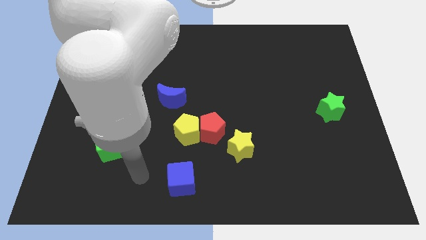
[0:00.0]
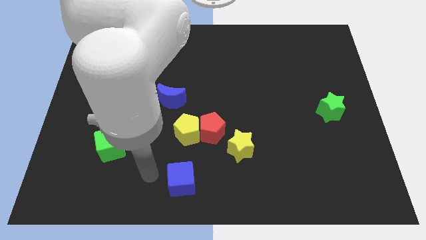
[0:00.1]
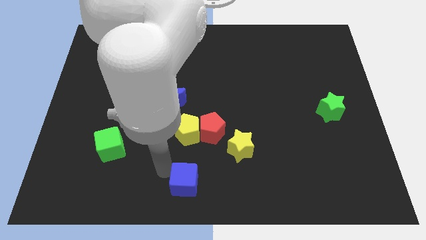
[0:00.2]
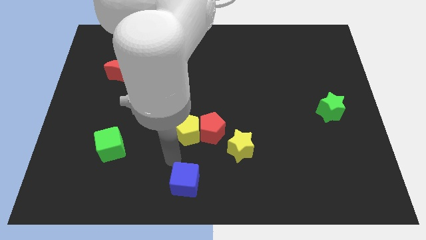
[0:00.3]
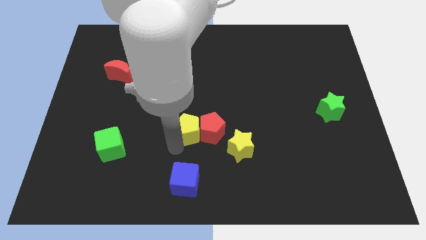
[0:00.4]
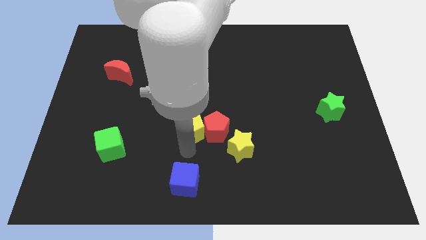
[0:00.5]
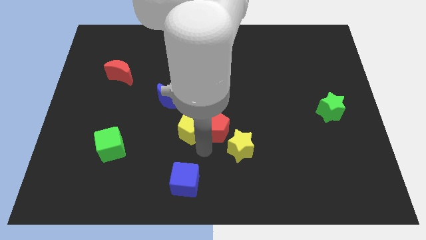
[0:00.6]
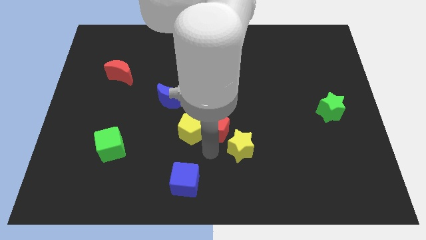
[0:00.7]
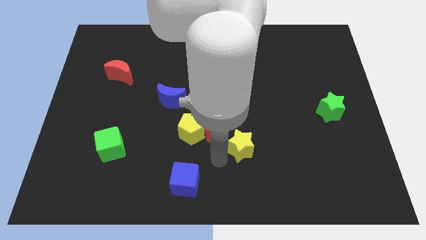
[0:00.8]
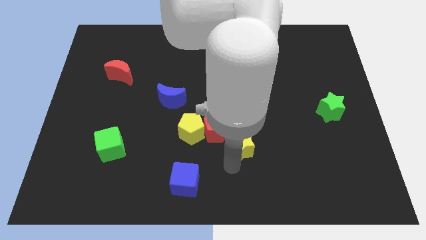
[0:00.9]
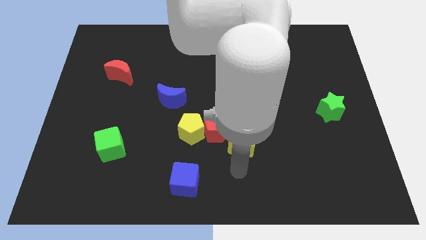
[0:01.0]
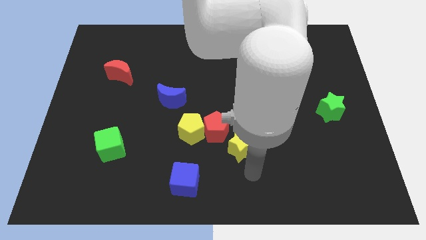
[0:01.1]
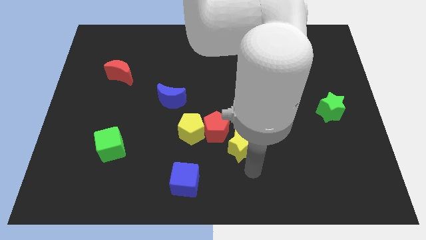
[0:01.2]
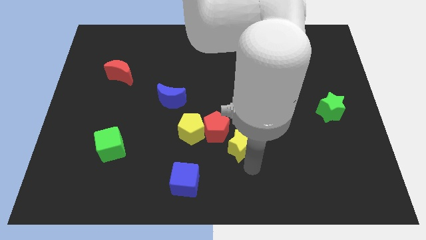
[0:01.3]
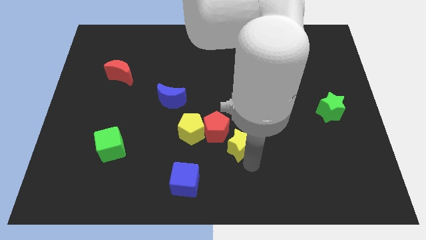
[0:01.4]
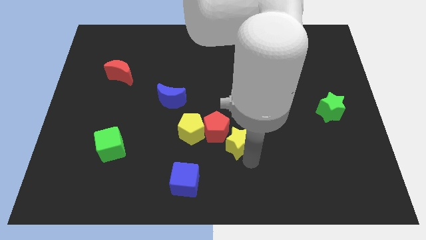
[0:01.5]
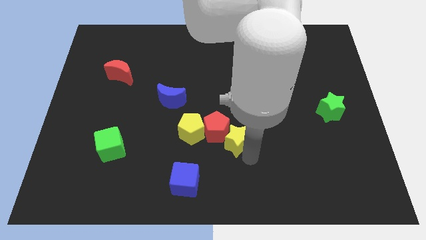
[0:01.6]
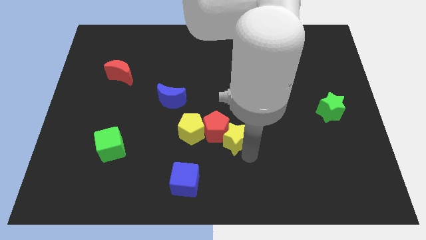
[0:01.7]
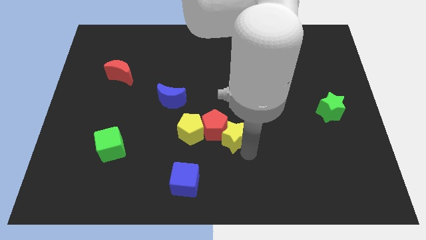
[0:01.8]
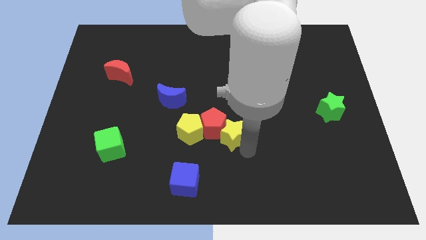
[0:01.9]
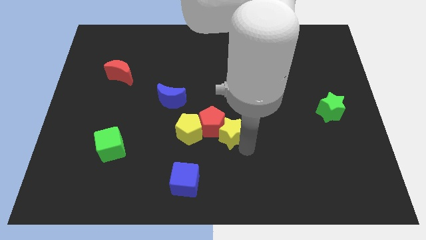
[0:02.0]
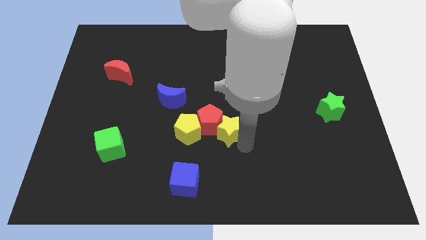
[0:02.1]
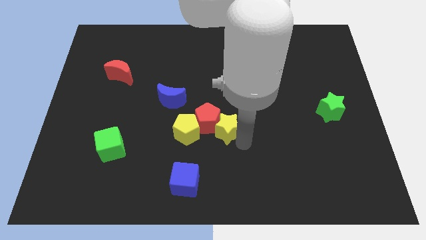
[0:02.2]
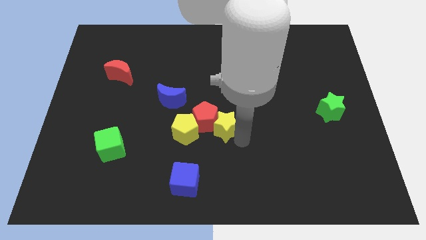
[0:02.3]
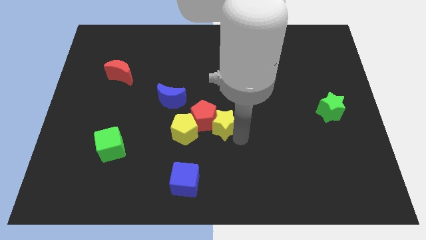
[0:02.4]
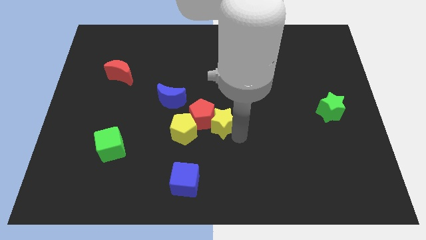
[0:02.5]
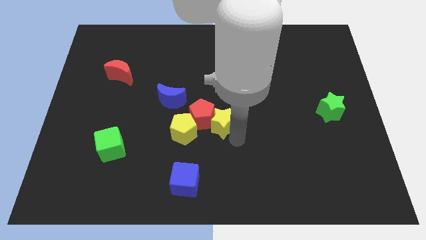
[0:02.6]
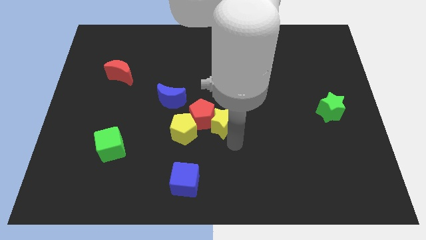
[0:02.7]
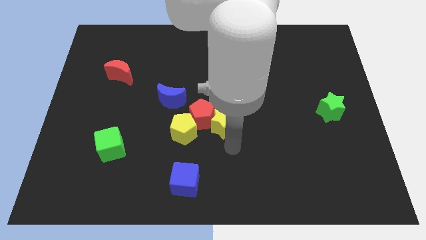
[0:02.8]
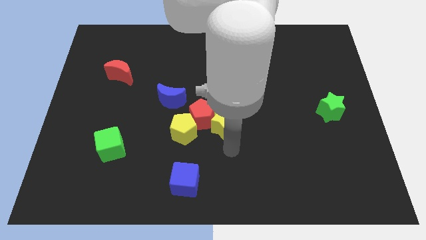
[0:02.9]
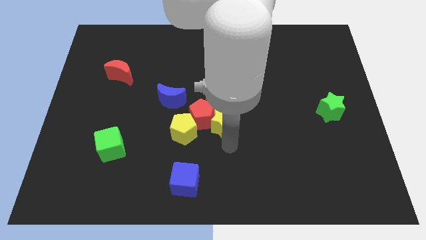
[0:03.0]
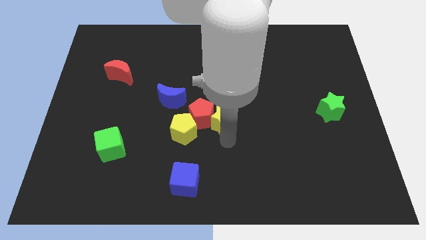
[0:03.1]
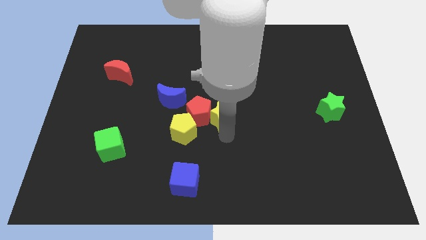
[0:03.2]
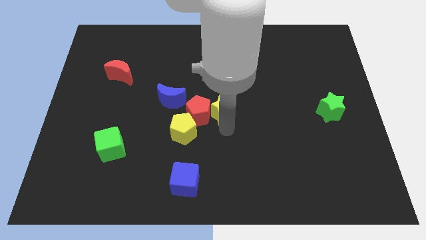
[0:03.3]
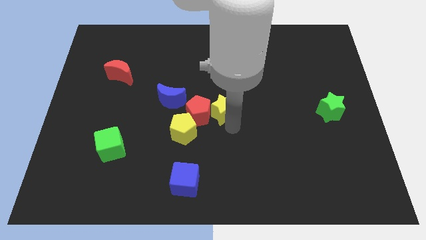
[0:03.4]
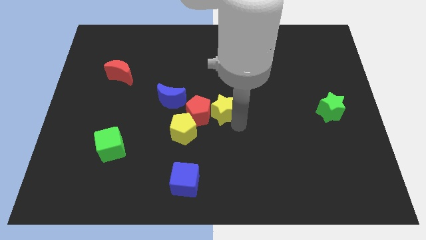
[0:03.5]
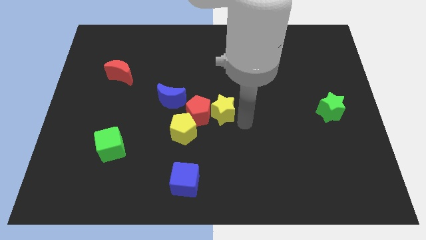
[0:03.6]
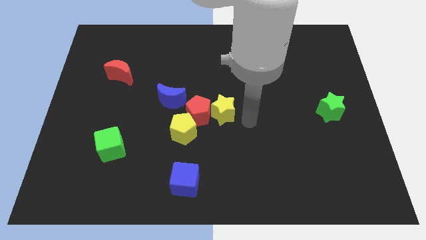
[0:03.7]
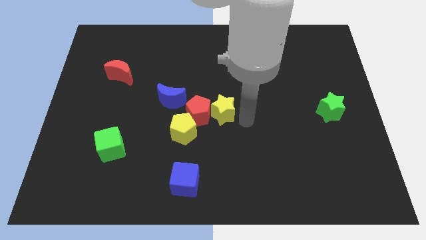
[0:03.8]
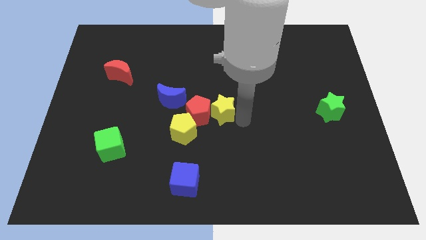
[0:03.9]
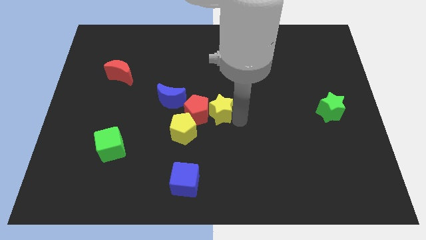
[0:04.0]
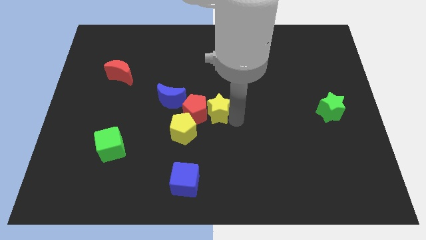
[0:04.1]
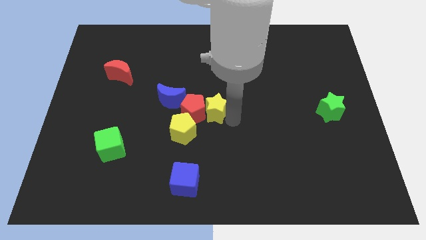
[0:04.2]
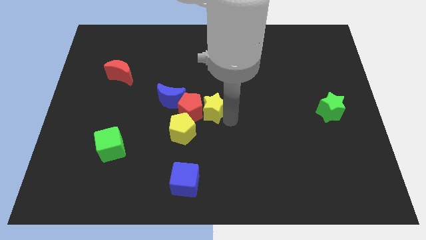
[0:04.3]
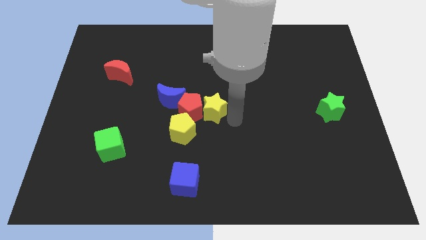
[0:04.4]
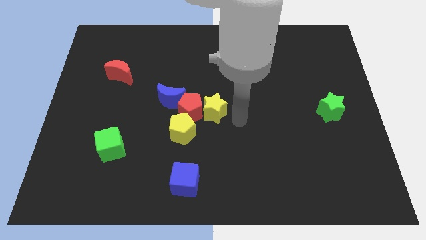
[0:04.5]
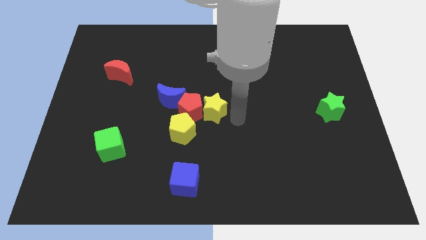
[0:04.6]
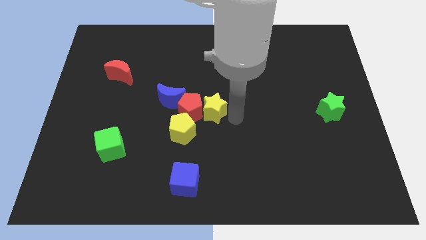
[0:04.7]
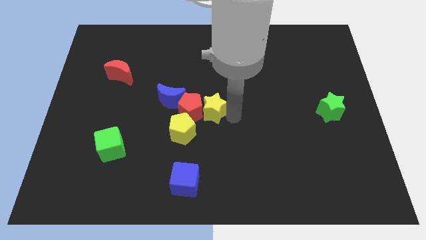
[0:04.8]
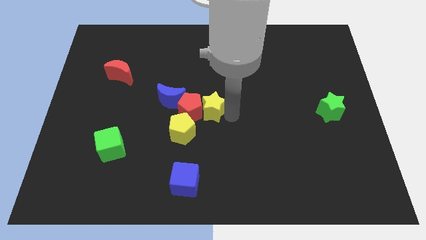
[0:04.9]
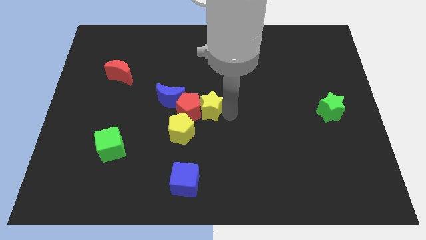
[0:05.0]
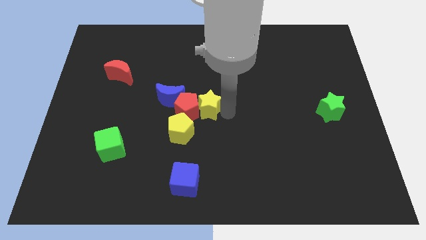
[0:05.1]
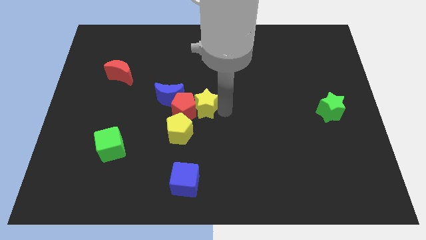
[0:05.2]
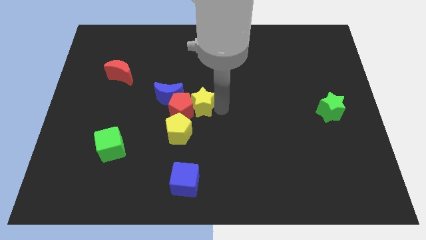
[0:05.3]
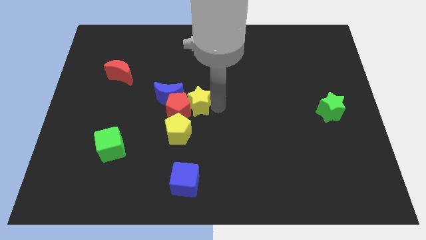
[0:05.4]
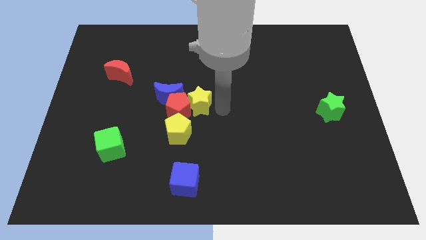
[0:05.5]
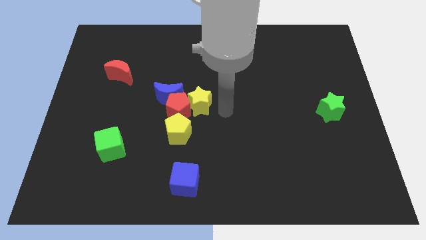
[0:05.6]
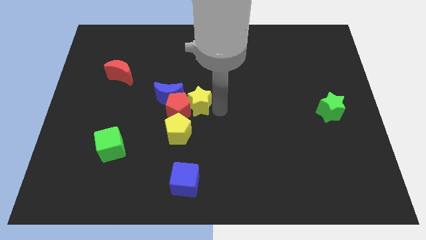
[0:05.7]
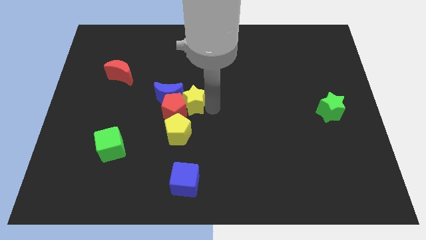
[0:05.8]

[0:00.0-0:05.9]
push the yellow star next to the blue moon

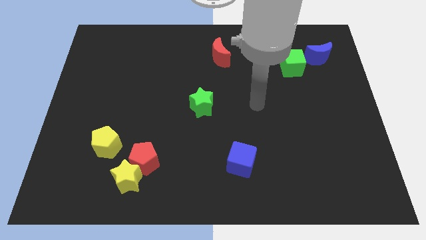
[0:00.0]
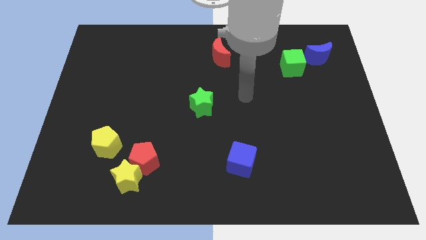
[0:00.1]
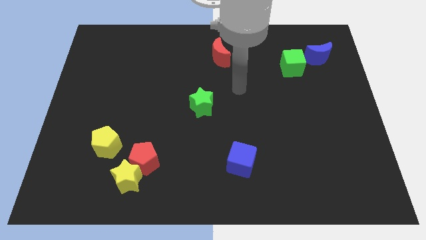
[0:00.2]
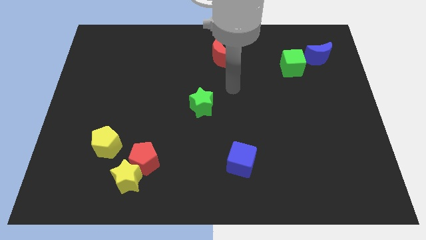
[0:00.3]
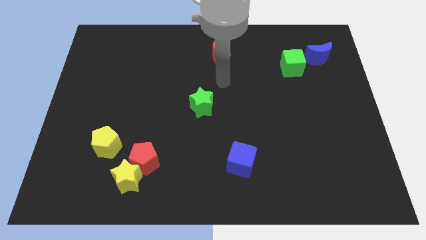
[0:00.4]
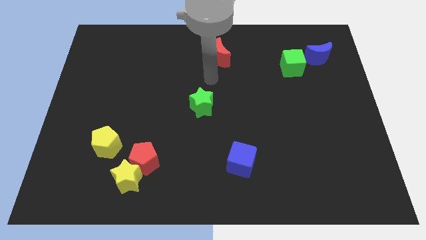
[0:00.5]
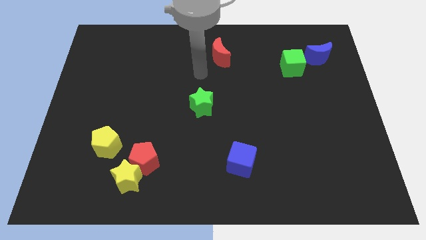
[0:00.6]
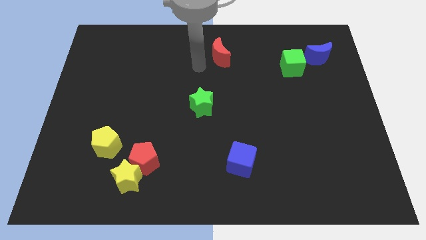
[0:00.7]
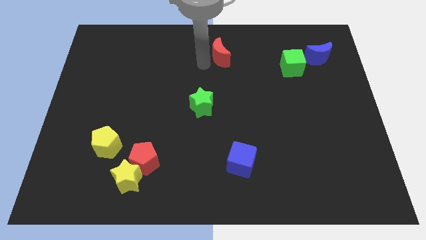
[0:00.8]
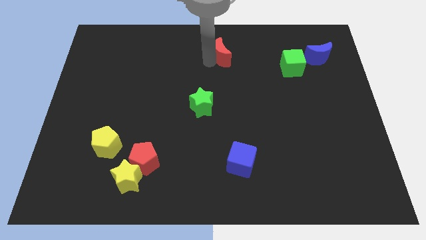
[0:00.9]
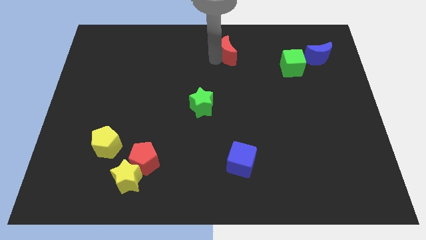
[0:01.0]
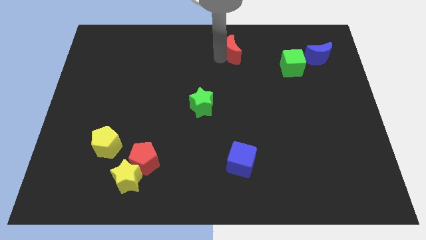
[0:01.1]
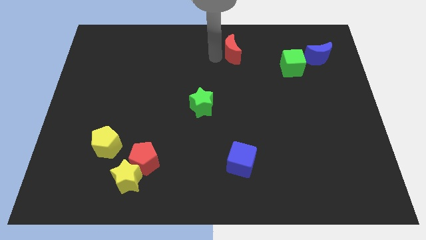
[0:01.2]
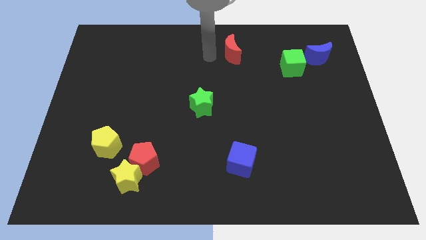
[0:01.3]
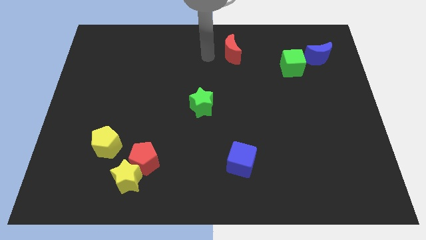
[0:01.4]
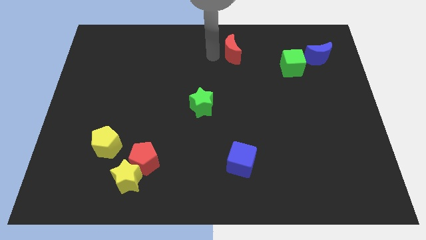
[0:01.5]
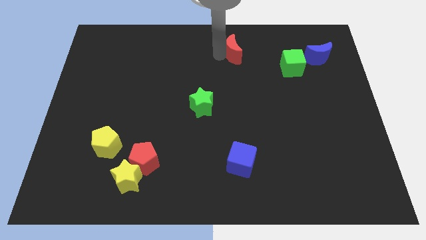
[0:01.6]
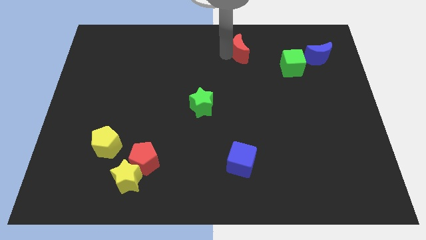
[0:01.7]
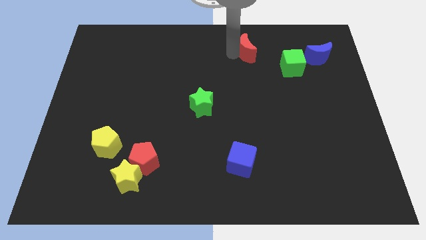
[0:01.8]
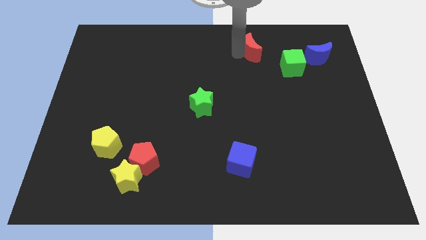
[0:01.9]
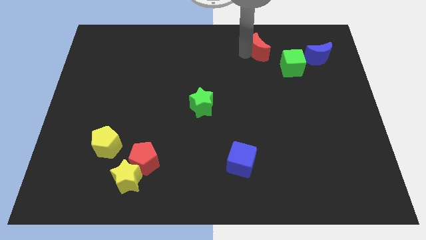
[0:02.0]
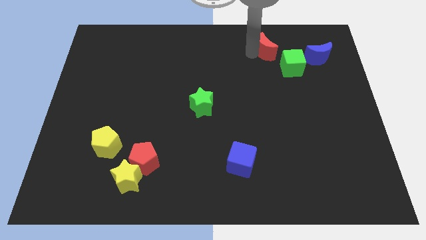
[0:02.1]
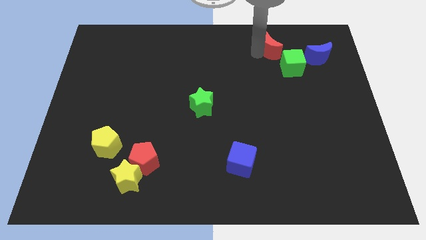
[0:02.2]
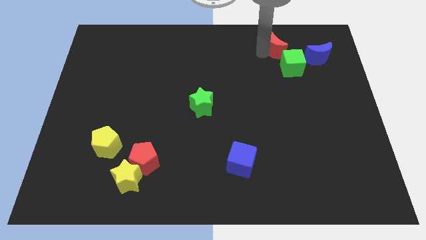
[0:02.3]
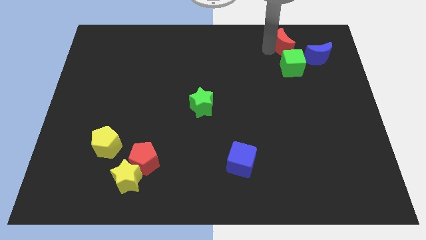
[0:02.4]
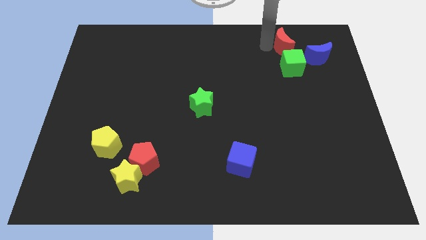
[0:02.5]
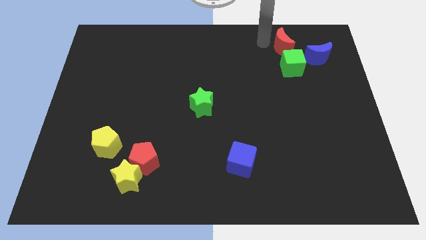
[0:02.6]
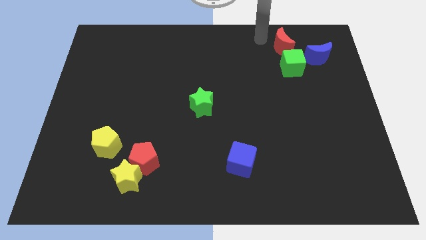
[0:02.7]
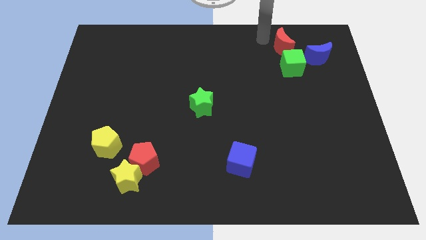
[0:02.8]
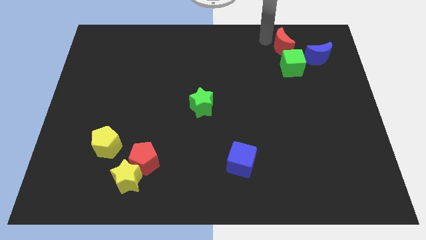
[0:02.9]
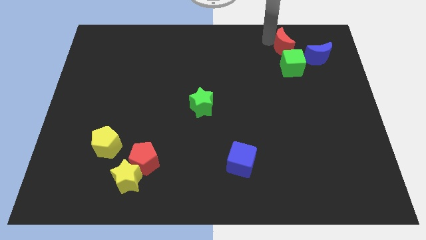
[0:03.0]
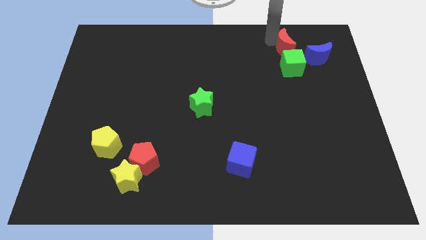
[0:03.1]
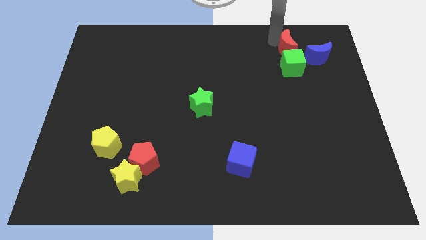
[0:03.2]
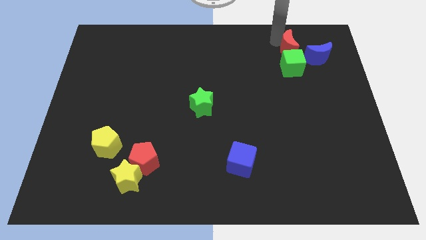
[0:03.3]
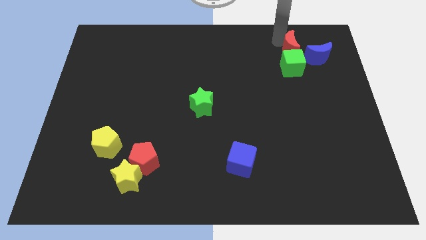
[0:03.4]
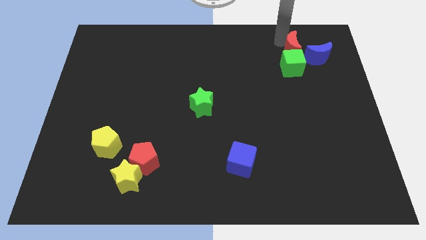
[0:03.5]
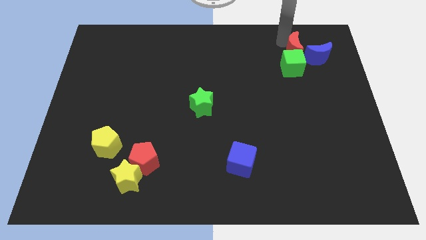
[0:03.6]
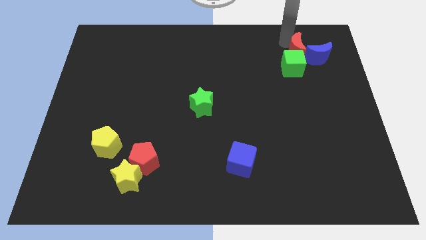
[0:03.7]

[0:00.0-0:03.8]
put the red moon close to the blue moon
